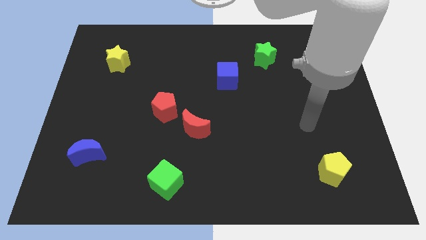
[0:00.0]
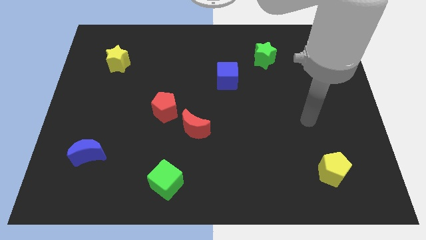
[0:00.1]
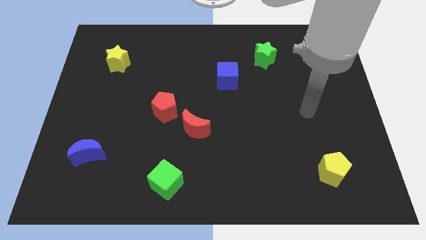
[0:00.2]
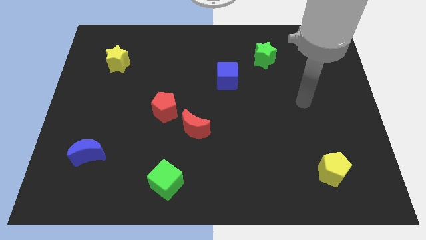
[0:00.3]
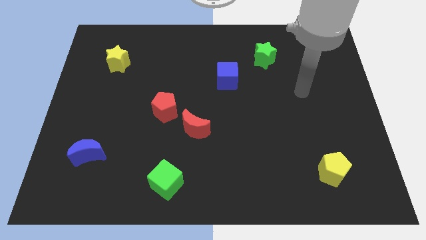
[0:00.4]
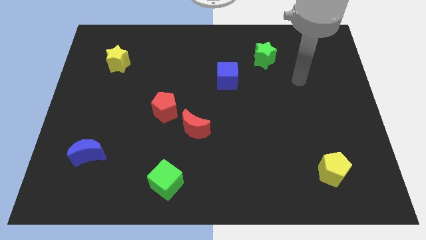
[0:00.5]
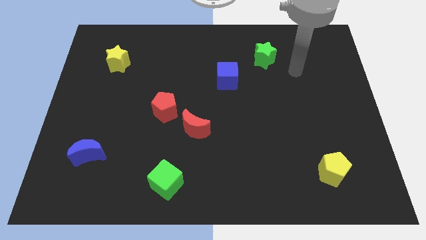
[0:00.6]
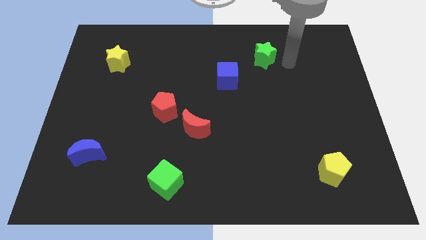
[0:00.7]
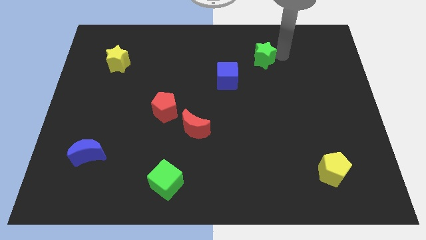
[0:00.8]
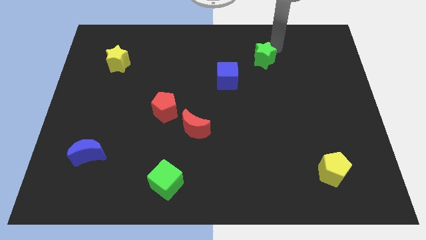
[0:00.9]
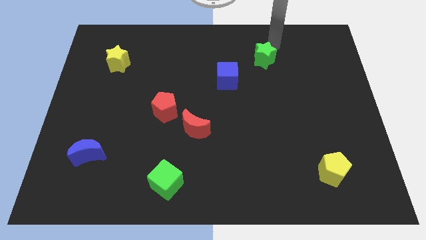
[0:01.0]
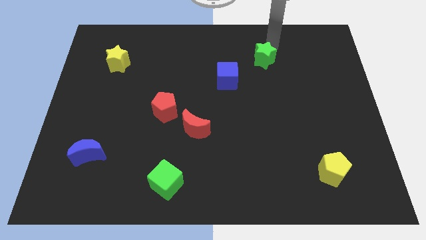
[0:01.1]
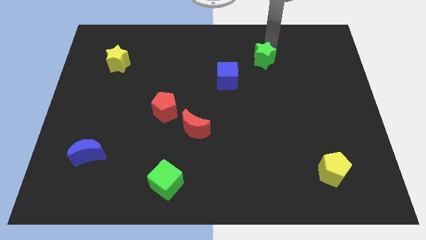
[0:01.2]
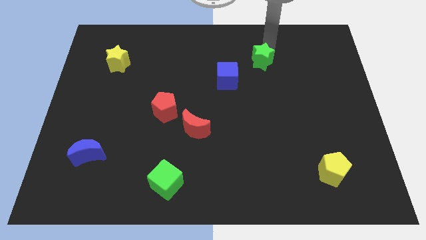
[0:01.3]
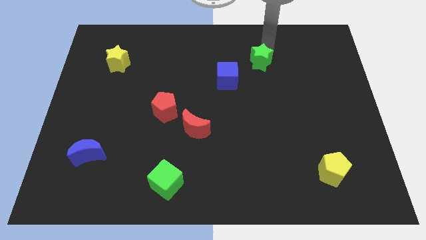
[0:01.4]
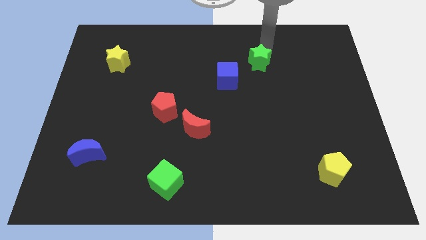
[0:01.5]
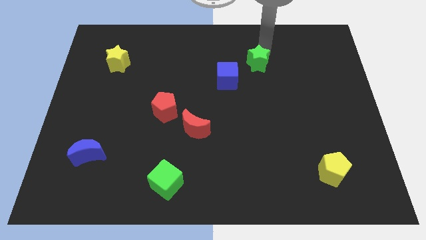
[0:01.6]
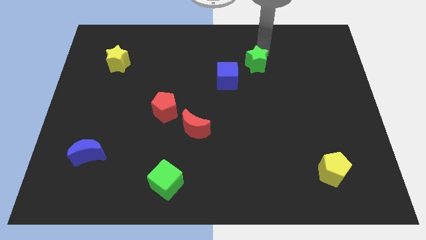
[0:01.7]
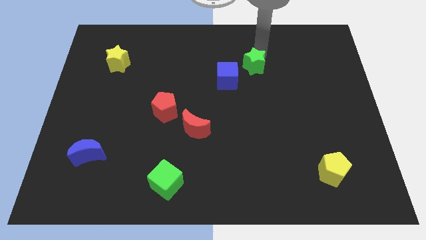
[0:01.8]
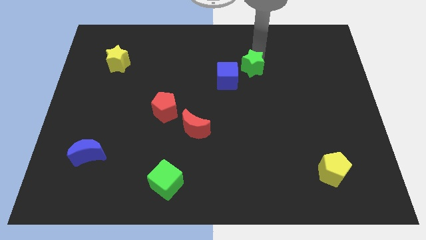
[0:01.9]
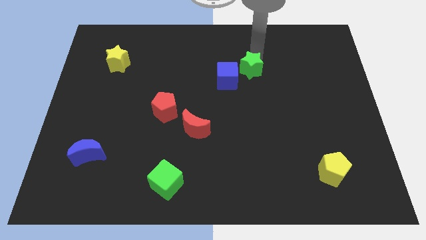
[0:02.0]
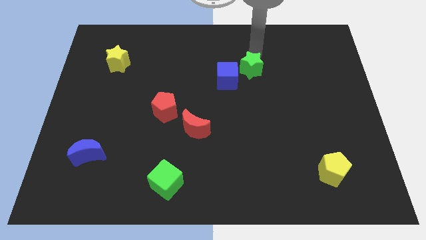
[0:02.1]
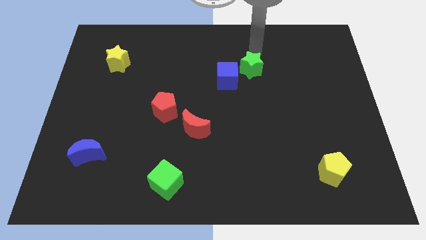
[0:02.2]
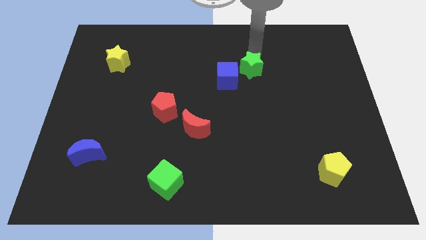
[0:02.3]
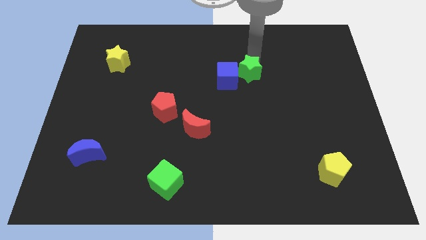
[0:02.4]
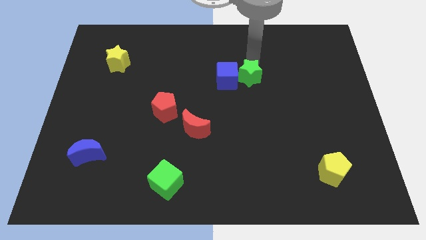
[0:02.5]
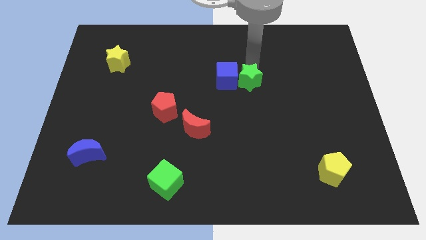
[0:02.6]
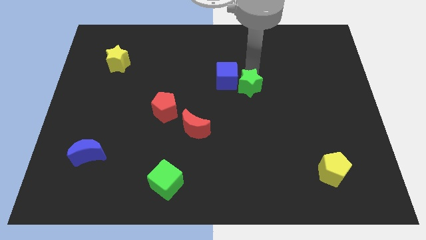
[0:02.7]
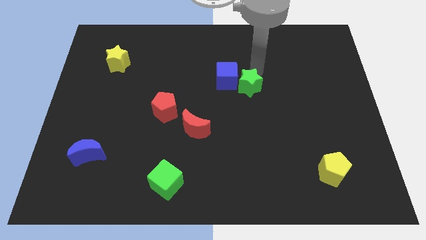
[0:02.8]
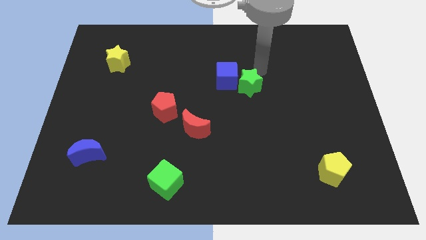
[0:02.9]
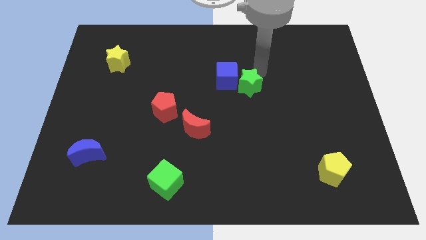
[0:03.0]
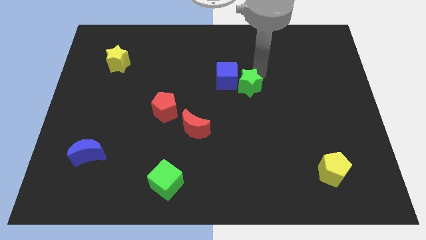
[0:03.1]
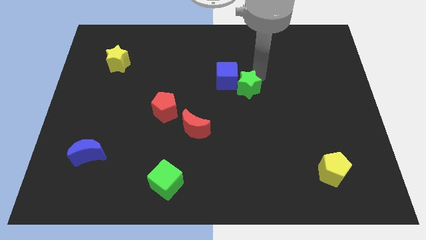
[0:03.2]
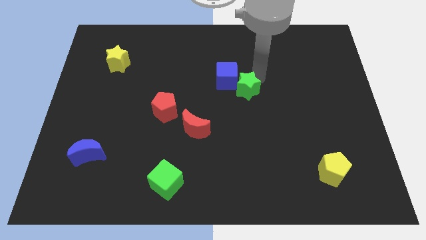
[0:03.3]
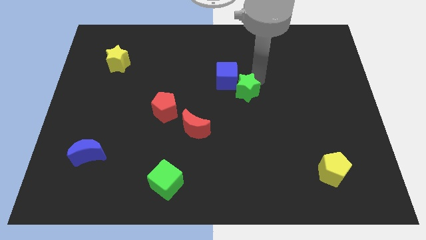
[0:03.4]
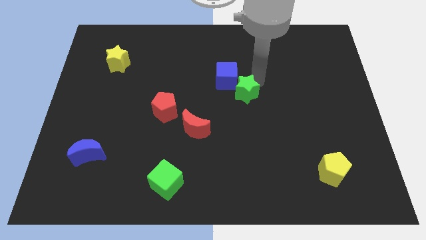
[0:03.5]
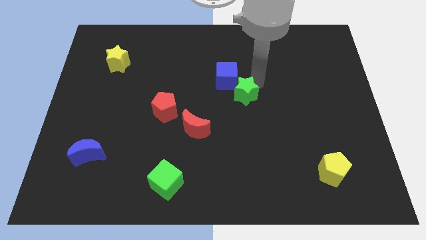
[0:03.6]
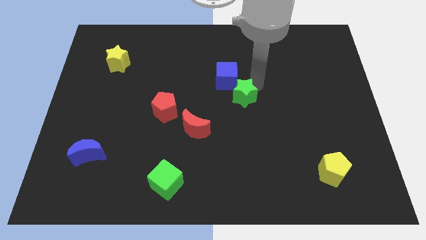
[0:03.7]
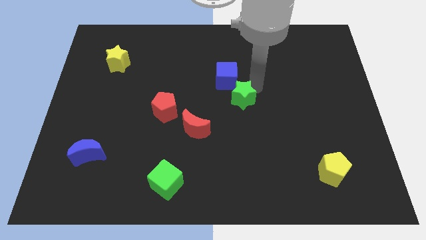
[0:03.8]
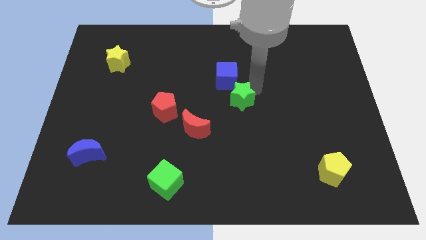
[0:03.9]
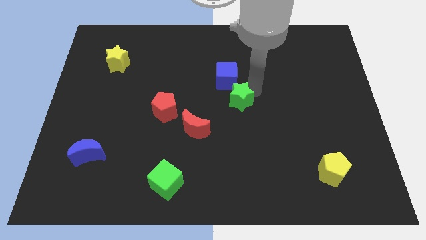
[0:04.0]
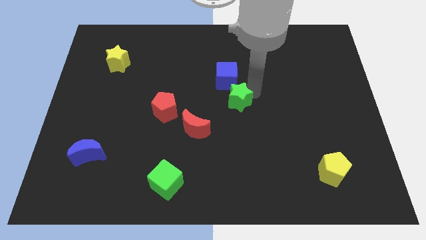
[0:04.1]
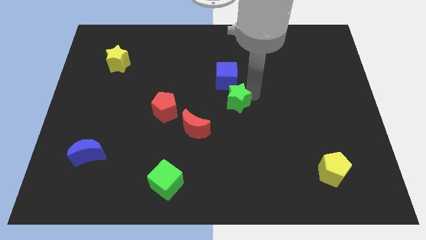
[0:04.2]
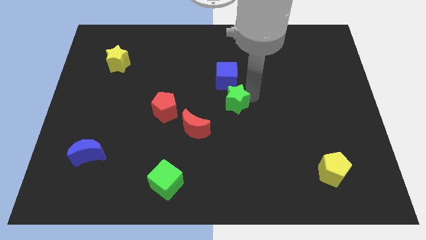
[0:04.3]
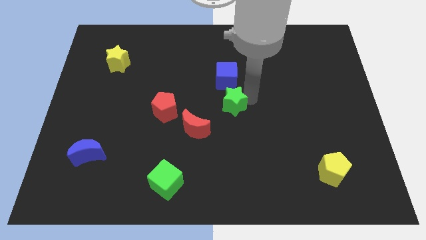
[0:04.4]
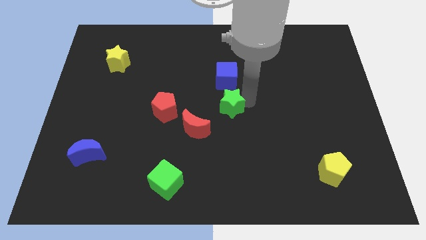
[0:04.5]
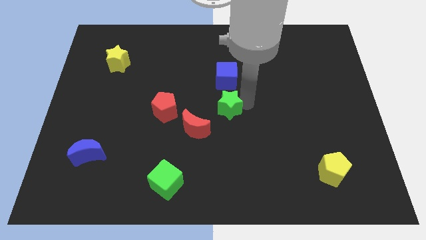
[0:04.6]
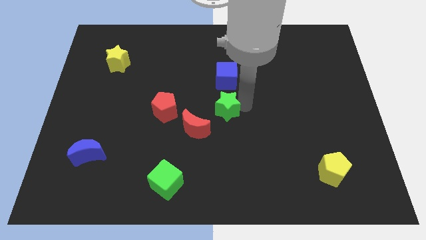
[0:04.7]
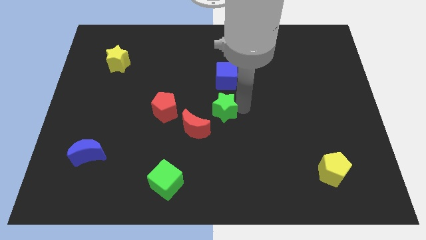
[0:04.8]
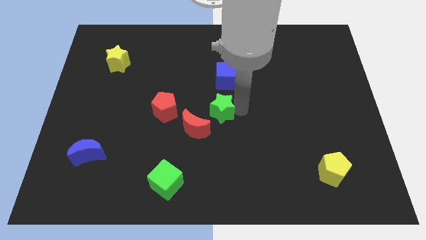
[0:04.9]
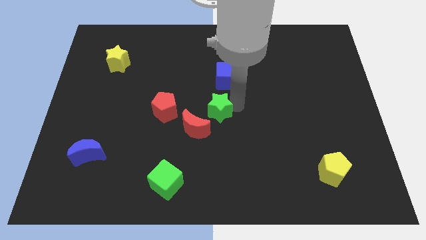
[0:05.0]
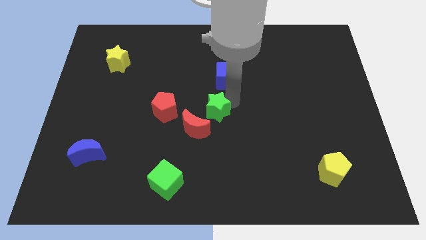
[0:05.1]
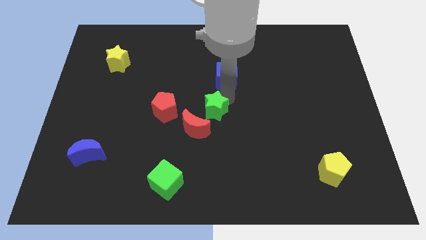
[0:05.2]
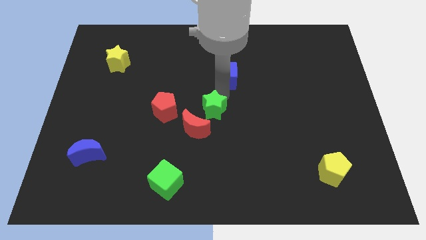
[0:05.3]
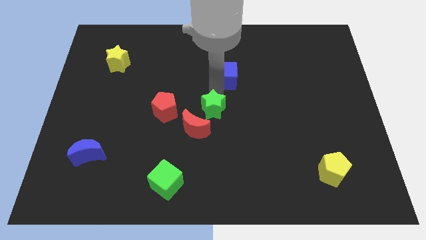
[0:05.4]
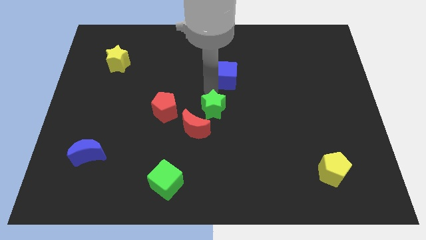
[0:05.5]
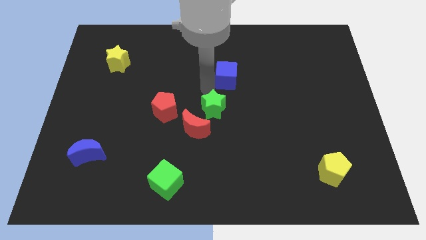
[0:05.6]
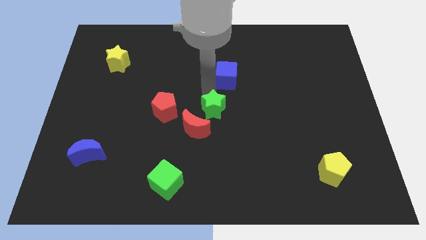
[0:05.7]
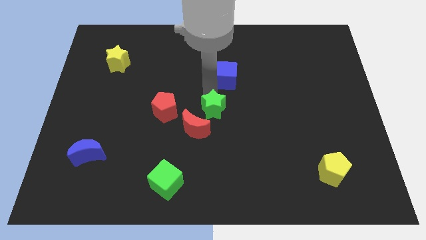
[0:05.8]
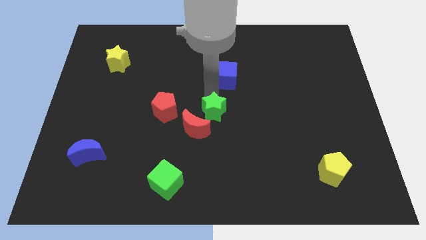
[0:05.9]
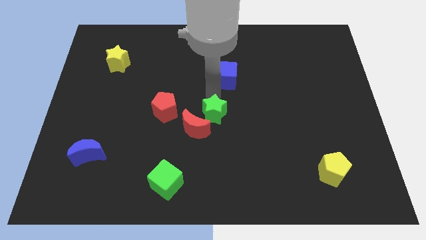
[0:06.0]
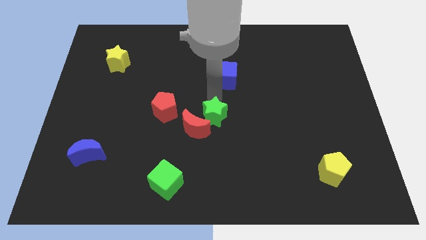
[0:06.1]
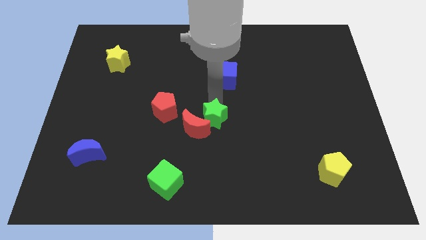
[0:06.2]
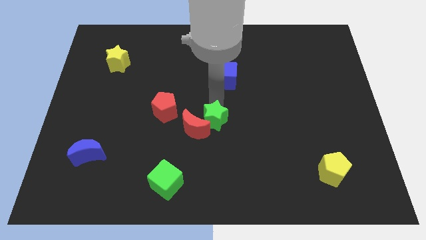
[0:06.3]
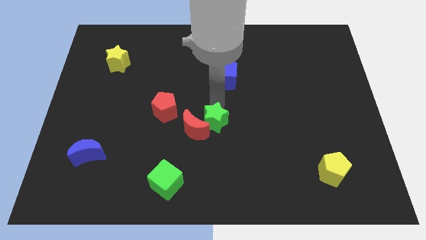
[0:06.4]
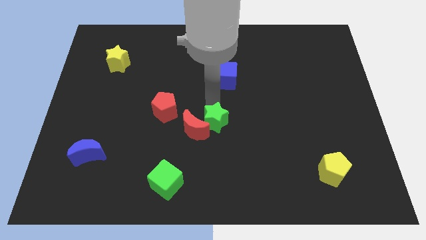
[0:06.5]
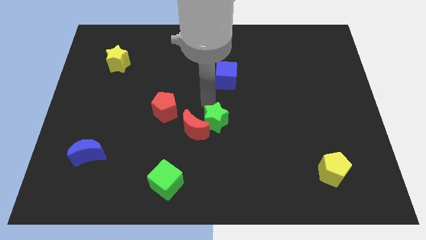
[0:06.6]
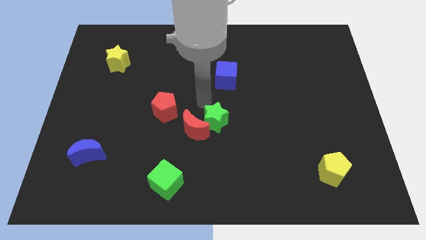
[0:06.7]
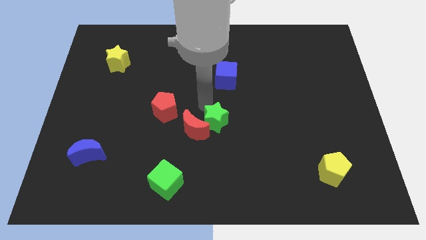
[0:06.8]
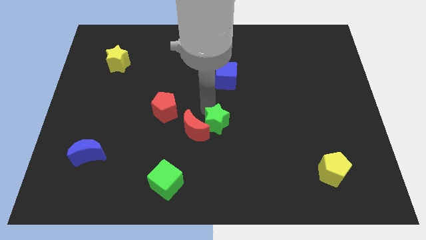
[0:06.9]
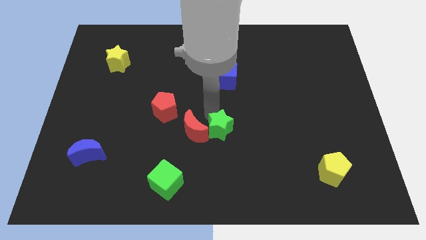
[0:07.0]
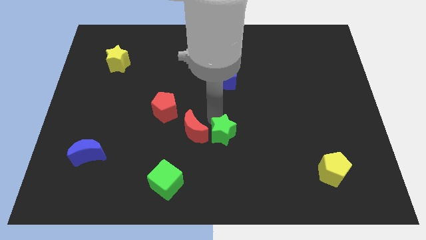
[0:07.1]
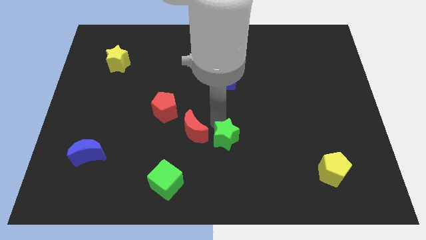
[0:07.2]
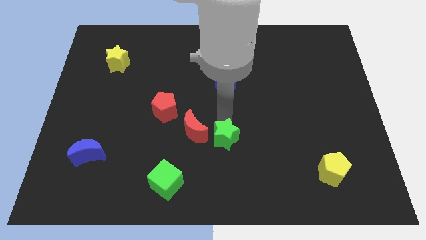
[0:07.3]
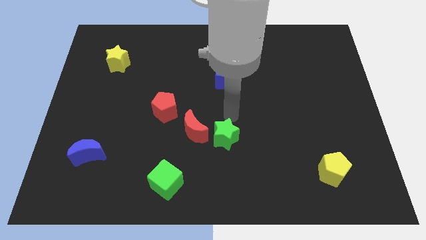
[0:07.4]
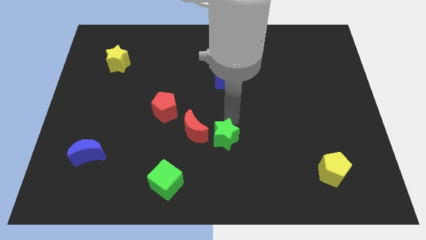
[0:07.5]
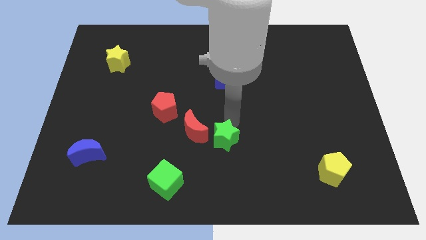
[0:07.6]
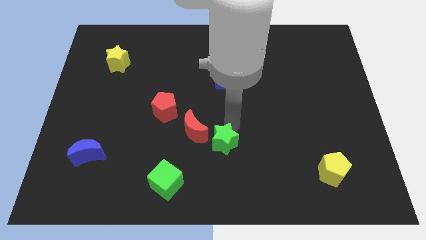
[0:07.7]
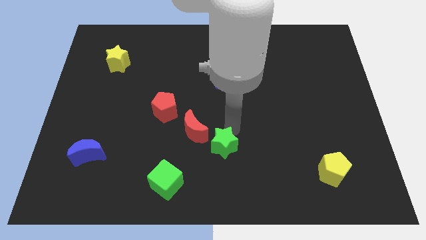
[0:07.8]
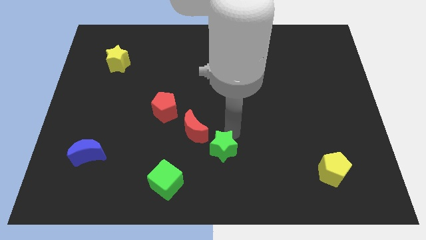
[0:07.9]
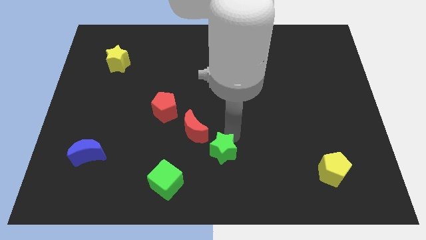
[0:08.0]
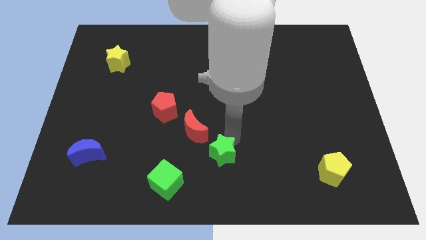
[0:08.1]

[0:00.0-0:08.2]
slide the green star to the bottom
